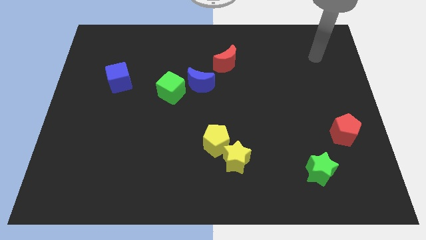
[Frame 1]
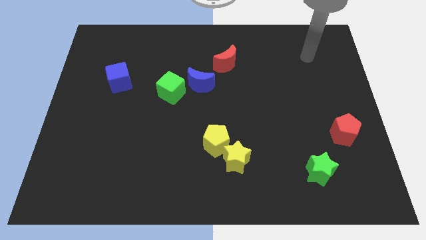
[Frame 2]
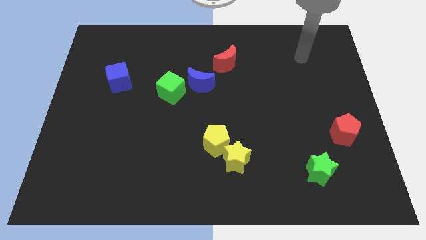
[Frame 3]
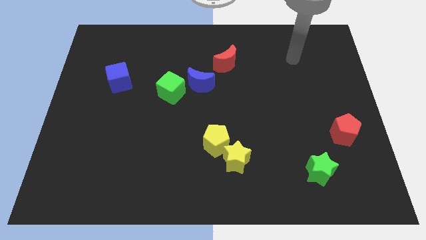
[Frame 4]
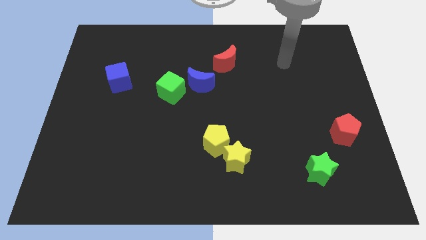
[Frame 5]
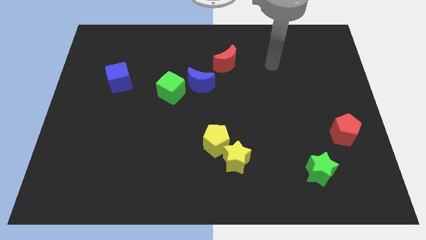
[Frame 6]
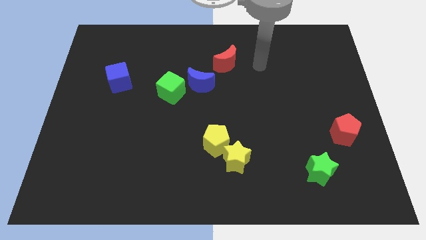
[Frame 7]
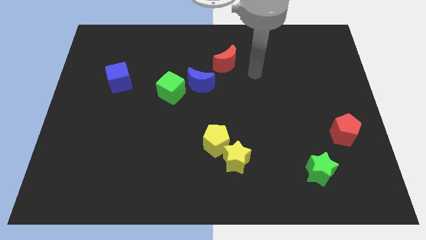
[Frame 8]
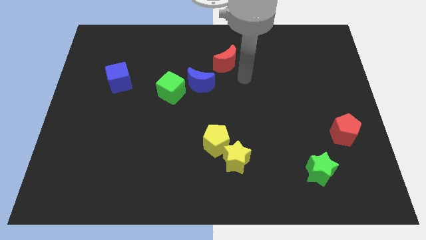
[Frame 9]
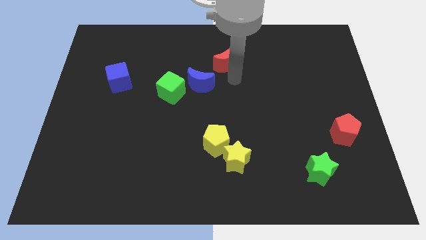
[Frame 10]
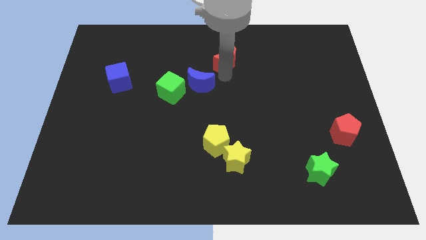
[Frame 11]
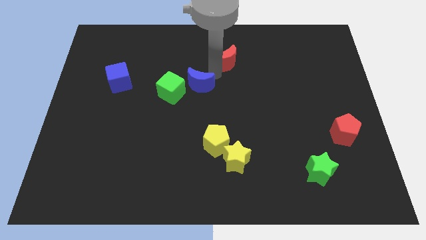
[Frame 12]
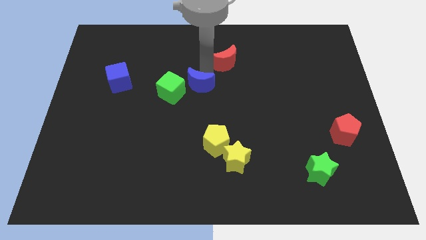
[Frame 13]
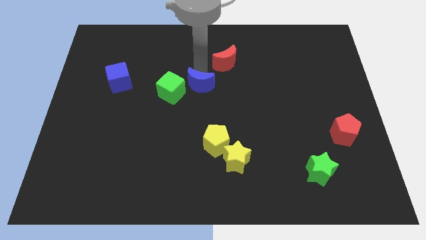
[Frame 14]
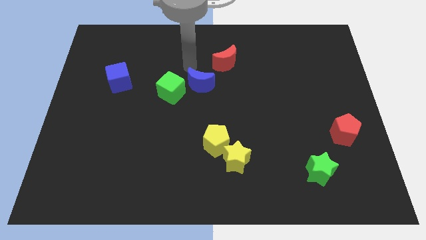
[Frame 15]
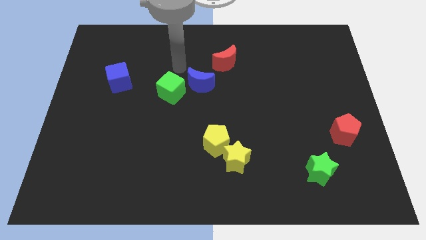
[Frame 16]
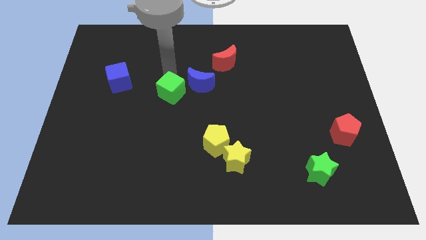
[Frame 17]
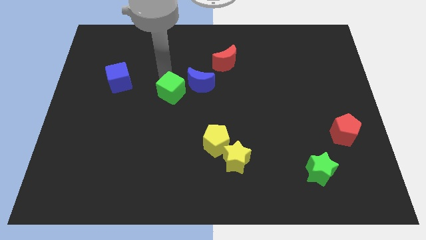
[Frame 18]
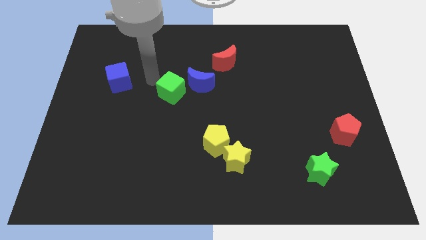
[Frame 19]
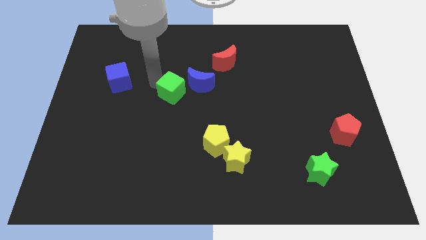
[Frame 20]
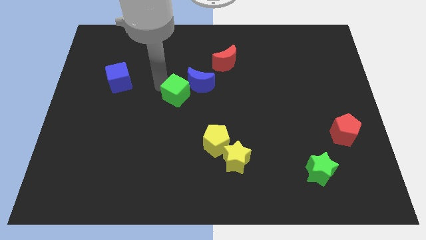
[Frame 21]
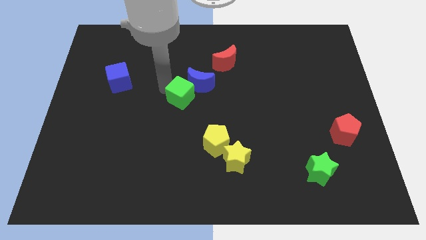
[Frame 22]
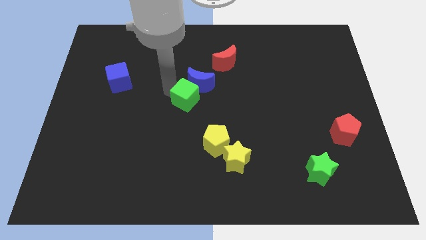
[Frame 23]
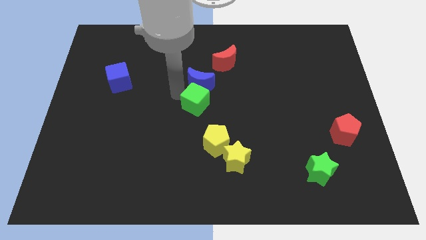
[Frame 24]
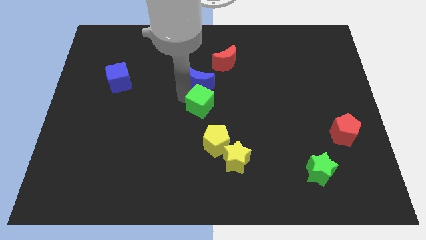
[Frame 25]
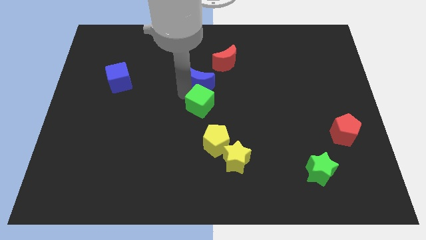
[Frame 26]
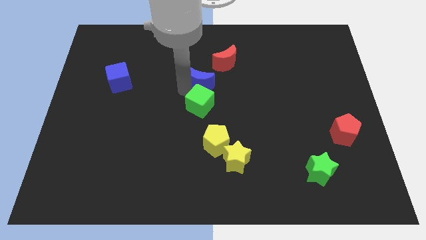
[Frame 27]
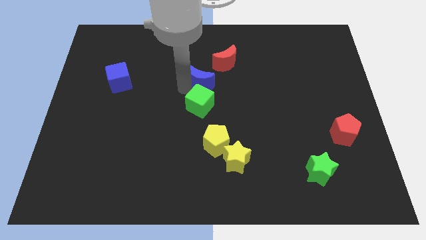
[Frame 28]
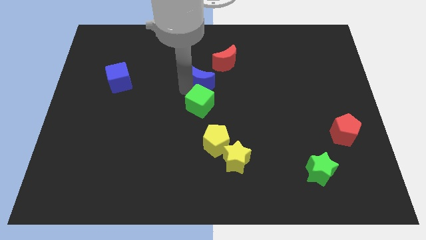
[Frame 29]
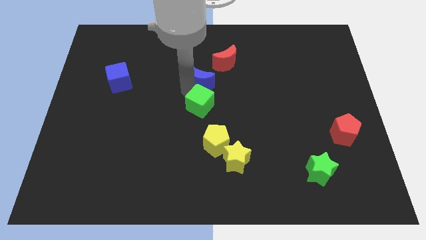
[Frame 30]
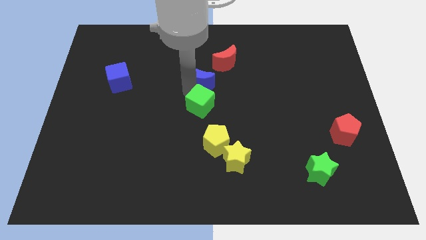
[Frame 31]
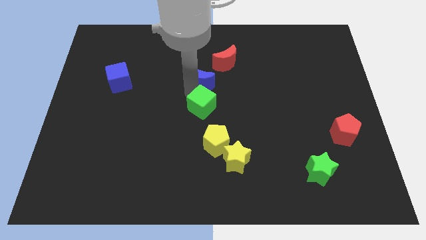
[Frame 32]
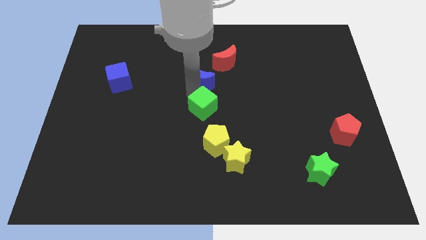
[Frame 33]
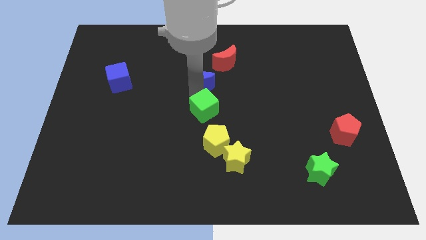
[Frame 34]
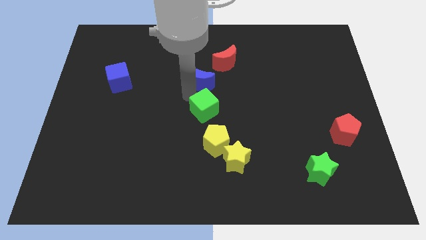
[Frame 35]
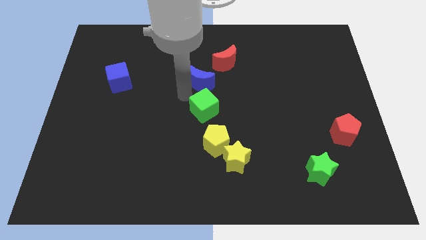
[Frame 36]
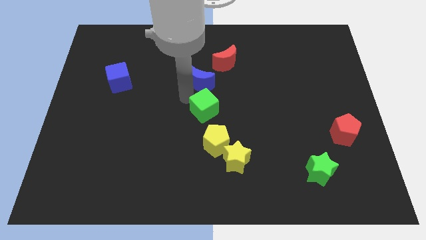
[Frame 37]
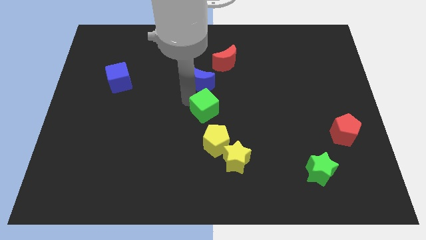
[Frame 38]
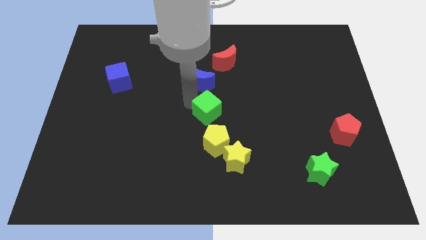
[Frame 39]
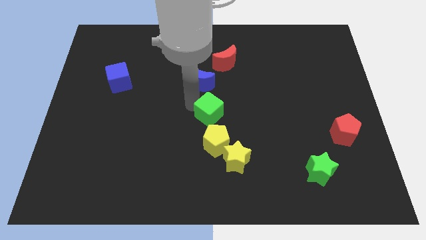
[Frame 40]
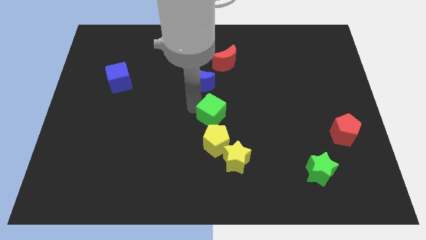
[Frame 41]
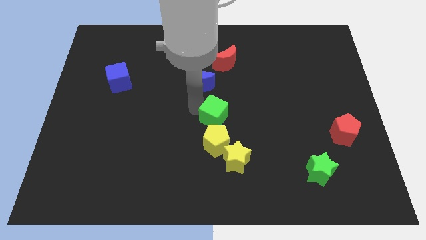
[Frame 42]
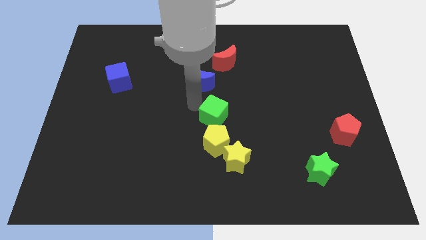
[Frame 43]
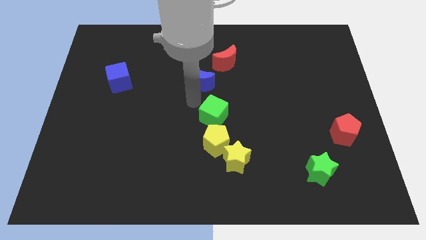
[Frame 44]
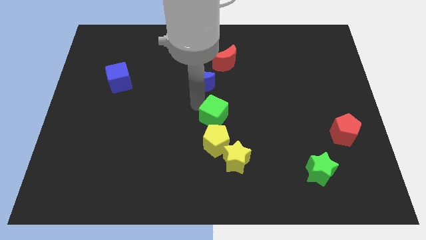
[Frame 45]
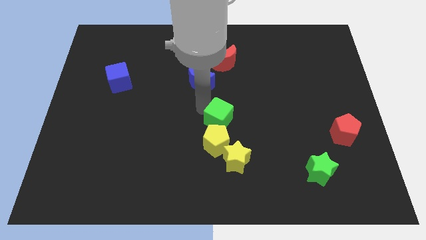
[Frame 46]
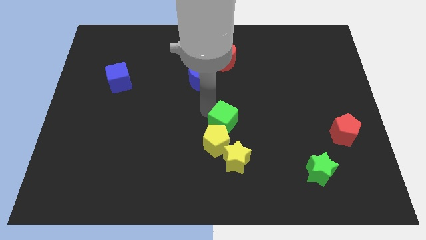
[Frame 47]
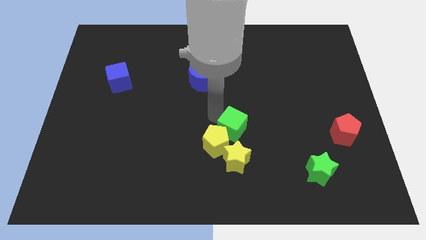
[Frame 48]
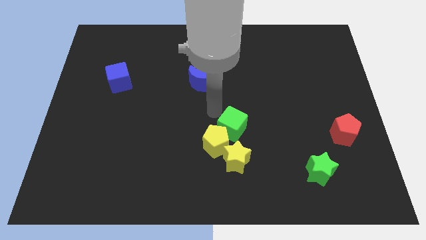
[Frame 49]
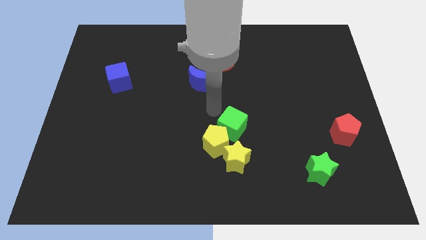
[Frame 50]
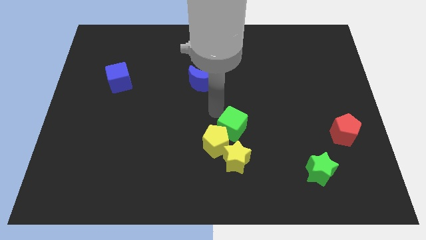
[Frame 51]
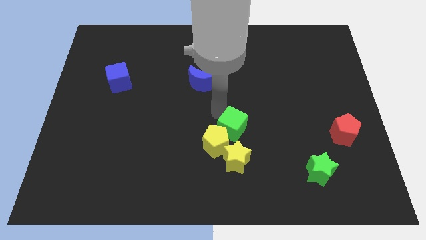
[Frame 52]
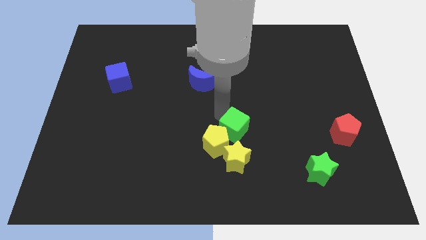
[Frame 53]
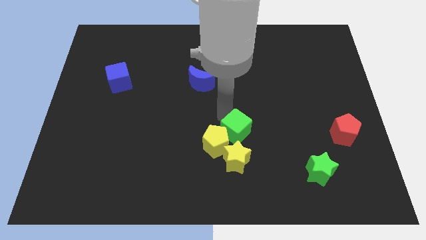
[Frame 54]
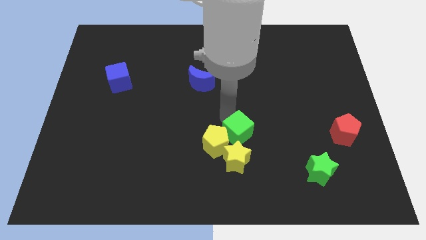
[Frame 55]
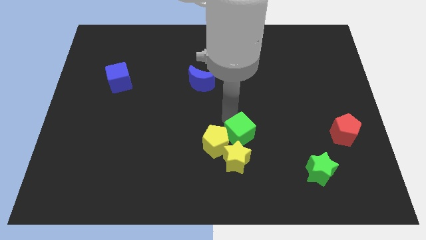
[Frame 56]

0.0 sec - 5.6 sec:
push the green cube downwards and right

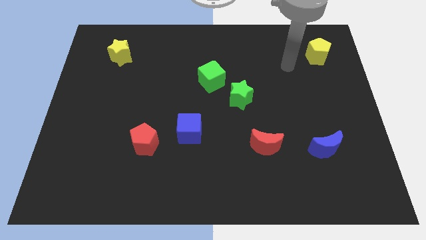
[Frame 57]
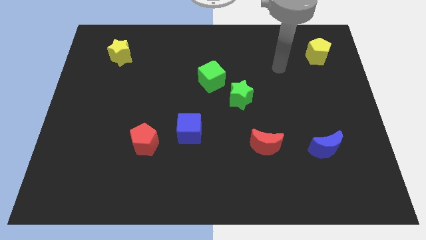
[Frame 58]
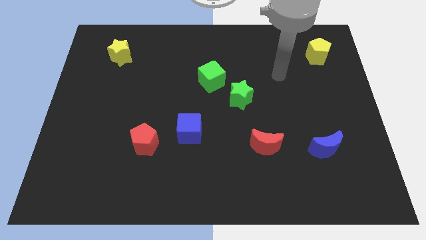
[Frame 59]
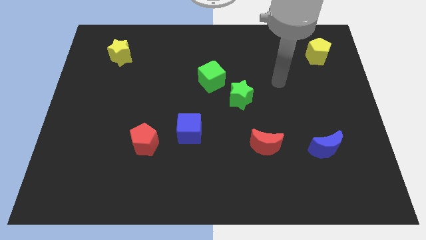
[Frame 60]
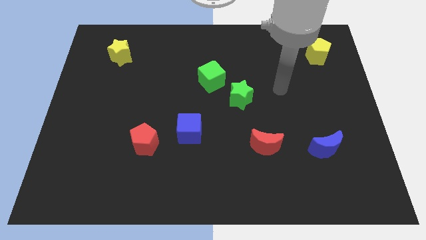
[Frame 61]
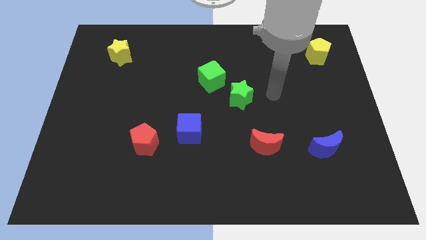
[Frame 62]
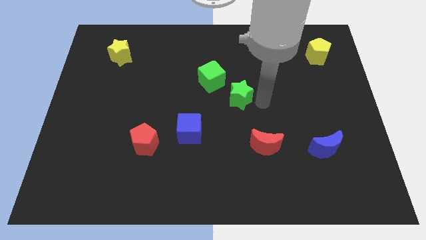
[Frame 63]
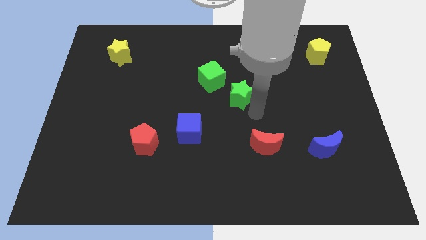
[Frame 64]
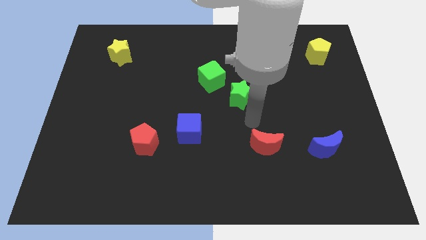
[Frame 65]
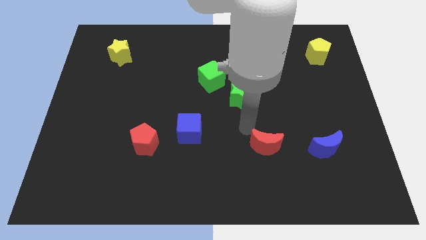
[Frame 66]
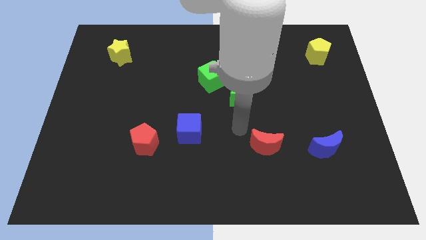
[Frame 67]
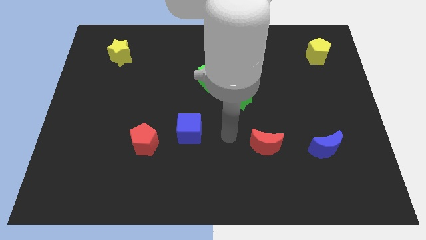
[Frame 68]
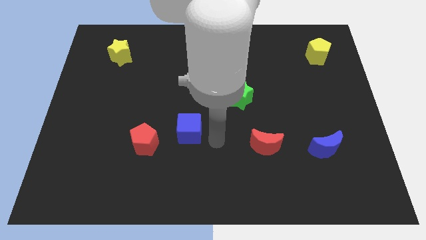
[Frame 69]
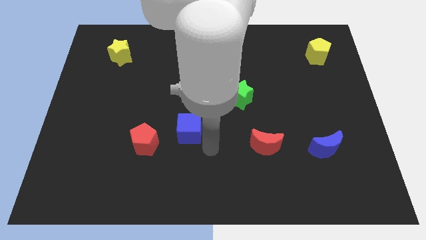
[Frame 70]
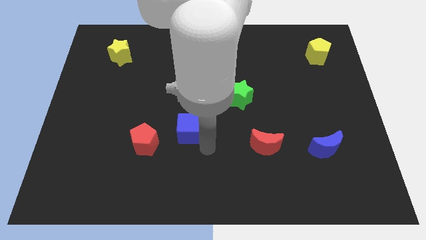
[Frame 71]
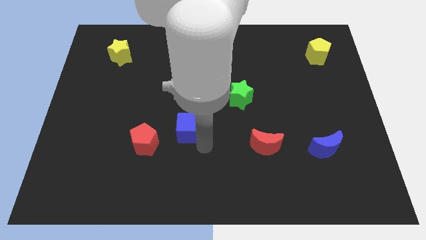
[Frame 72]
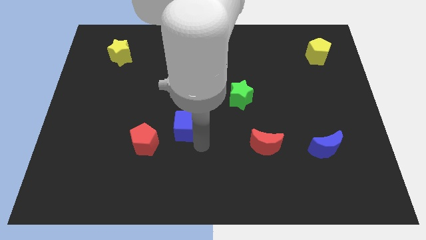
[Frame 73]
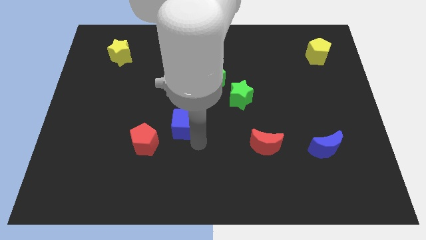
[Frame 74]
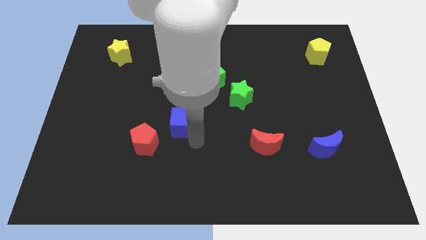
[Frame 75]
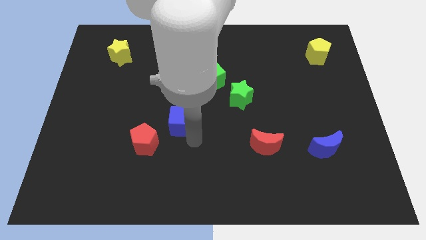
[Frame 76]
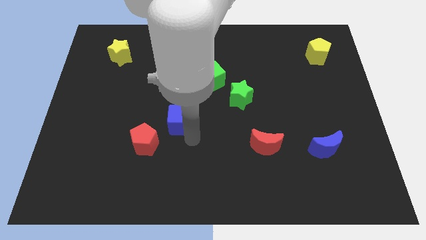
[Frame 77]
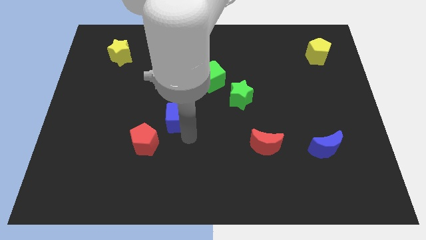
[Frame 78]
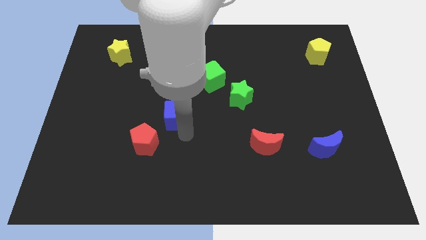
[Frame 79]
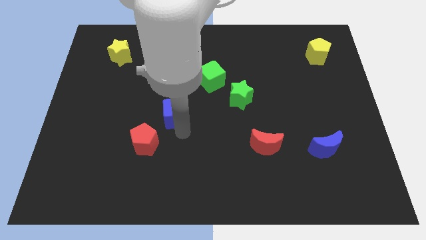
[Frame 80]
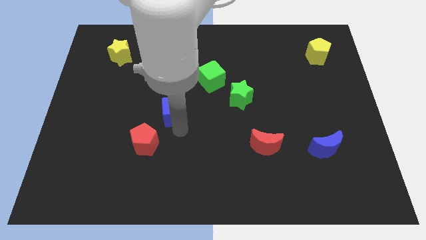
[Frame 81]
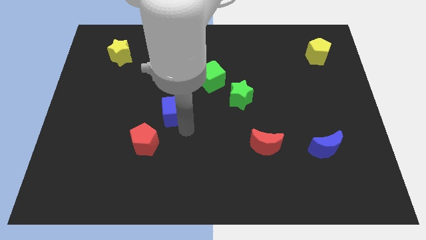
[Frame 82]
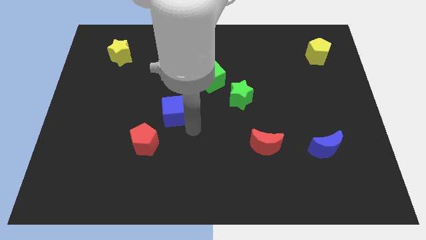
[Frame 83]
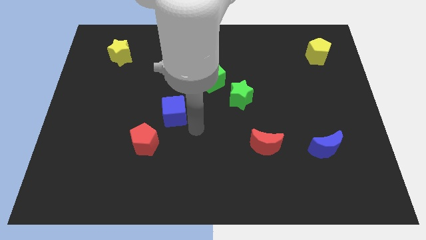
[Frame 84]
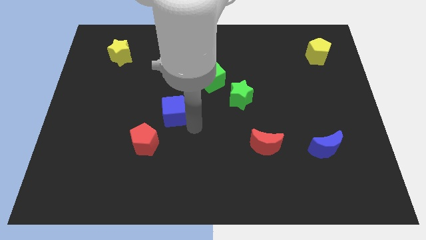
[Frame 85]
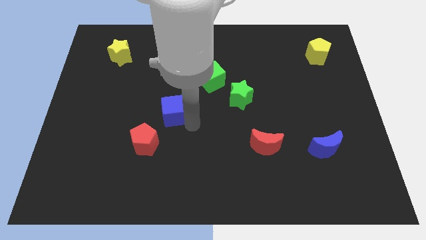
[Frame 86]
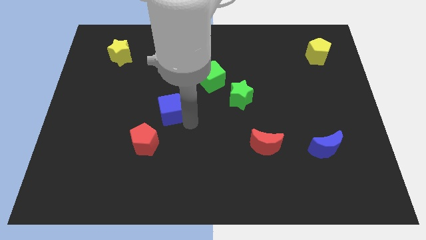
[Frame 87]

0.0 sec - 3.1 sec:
slightly slide the blue cube up and to the left
